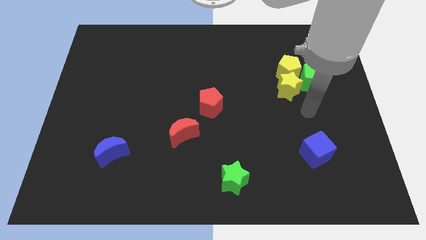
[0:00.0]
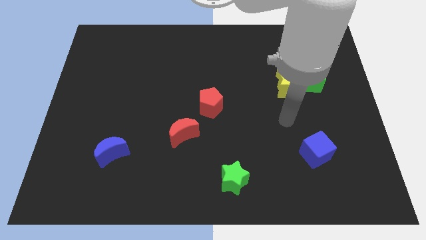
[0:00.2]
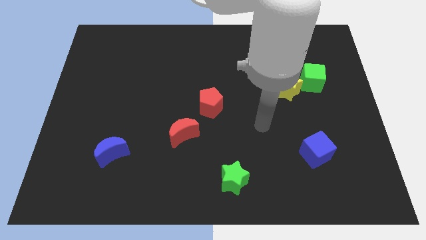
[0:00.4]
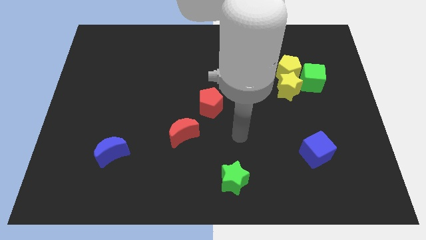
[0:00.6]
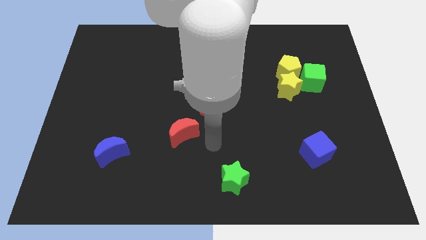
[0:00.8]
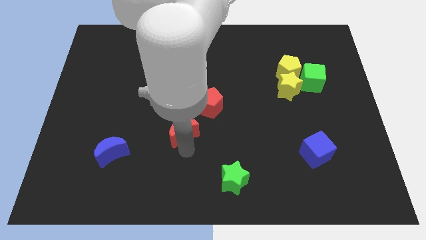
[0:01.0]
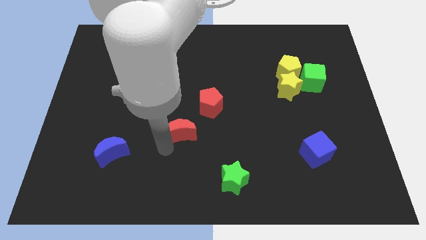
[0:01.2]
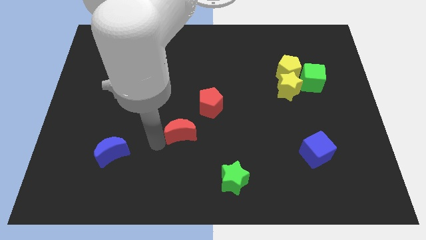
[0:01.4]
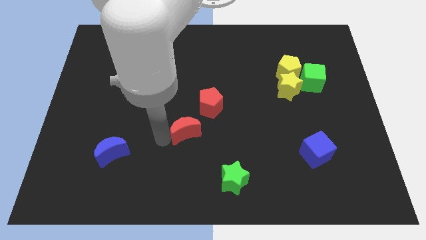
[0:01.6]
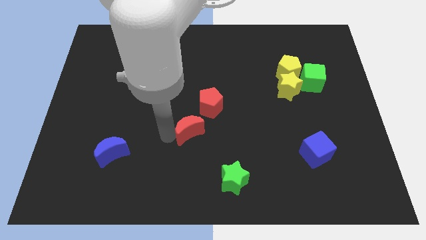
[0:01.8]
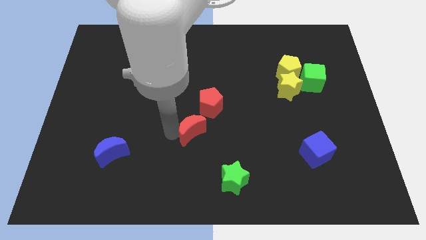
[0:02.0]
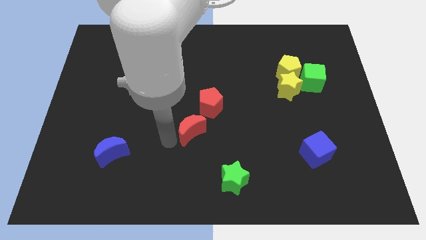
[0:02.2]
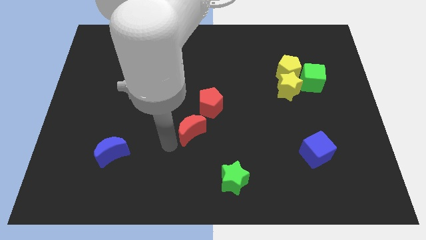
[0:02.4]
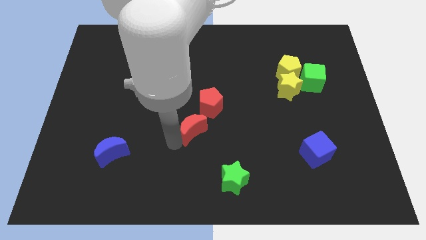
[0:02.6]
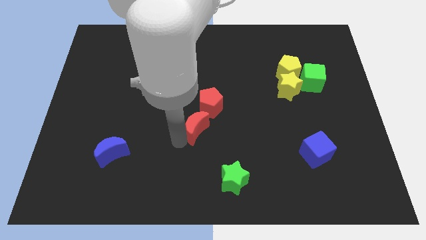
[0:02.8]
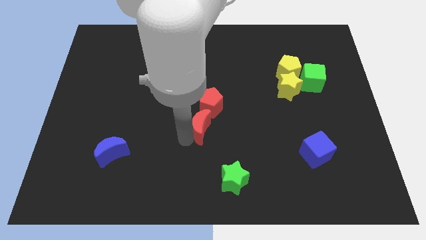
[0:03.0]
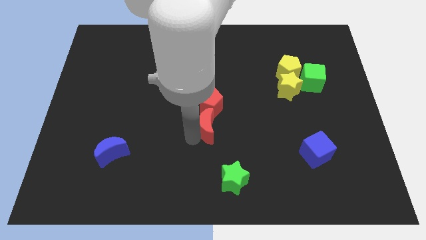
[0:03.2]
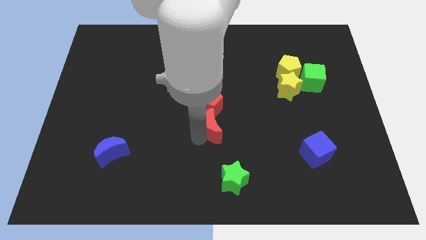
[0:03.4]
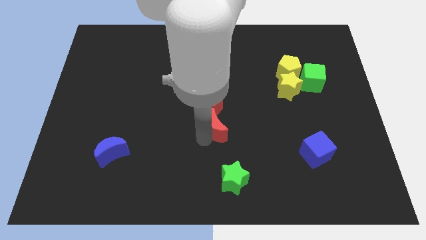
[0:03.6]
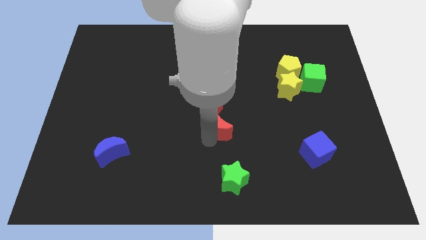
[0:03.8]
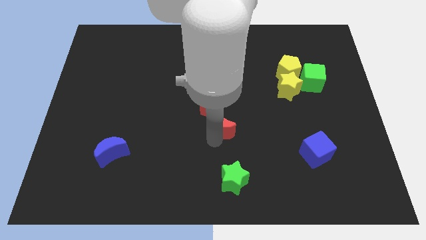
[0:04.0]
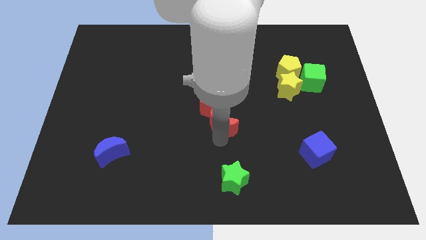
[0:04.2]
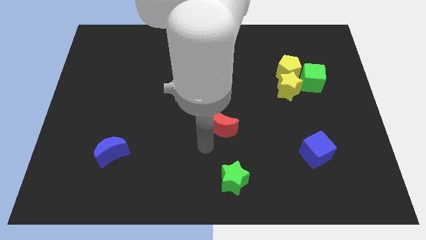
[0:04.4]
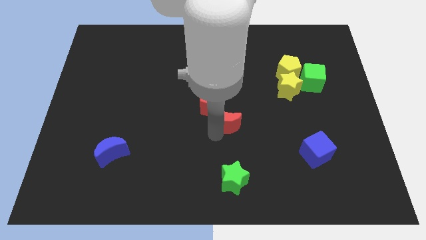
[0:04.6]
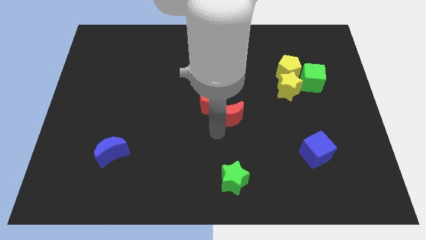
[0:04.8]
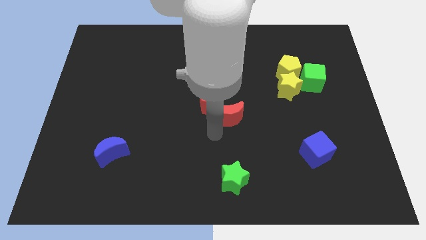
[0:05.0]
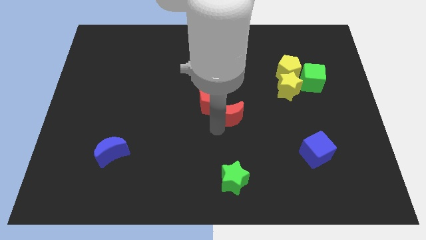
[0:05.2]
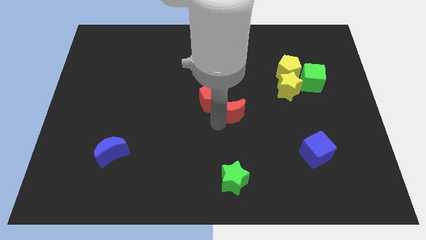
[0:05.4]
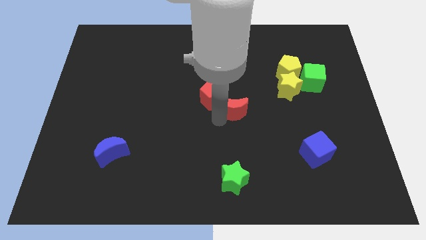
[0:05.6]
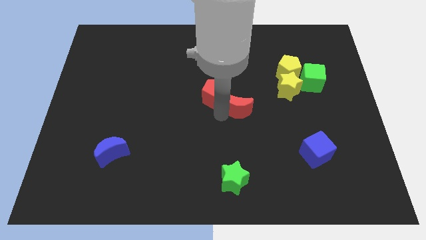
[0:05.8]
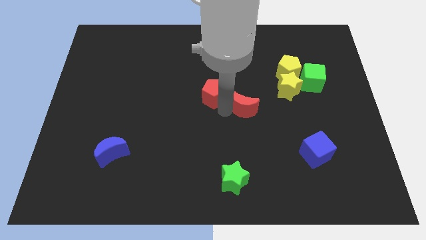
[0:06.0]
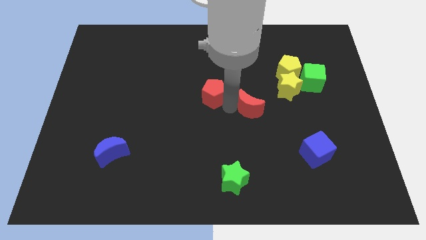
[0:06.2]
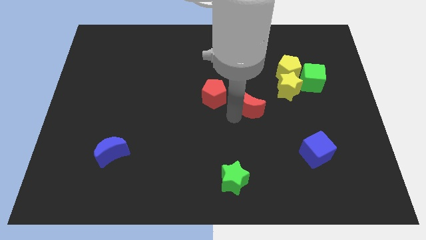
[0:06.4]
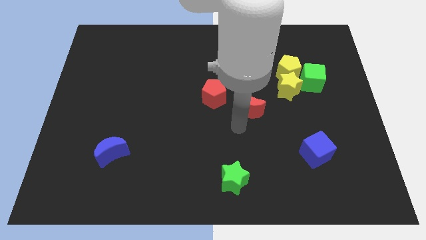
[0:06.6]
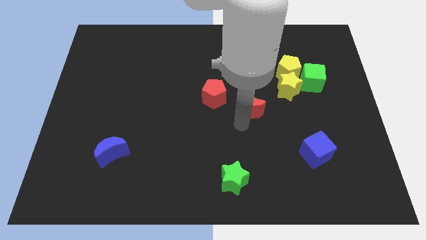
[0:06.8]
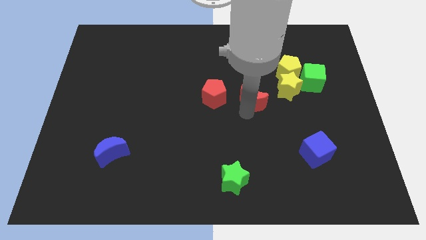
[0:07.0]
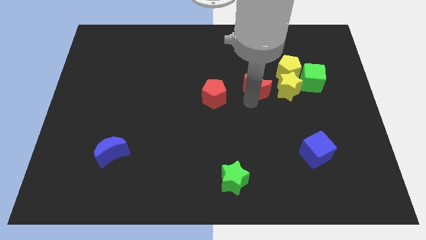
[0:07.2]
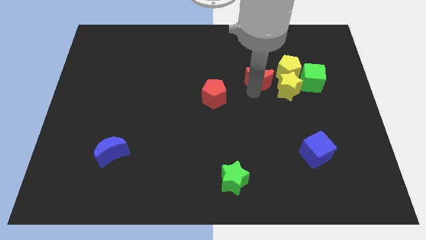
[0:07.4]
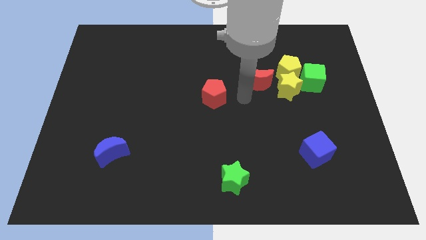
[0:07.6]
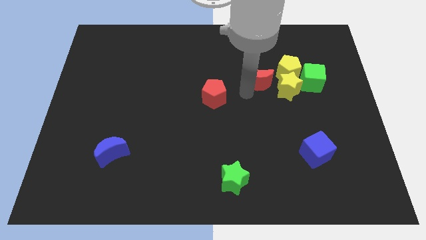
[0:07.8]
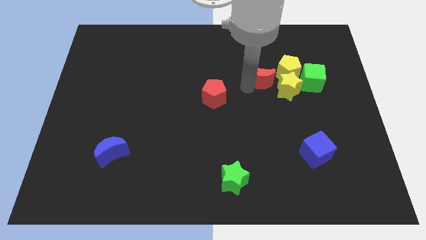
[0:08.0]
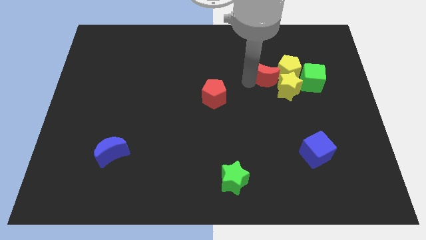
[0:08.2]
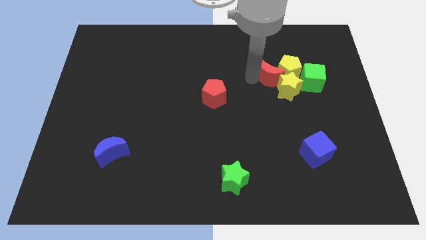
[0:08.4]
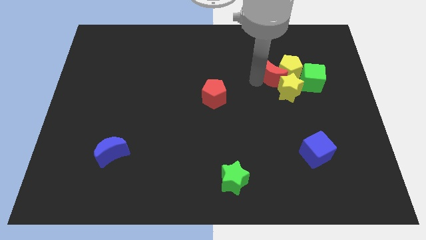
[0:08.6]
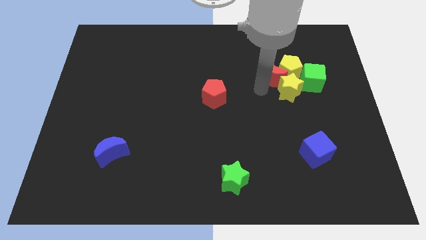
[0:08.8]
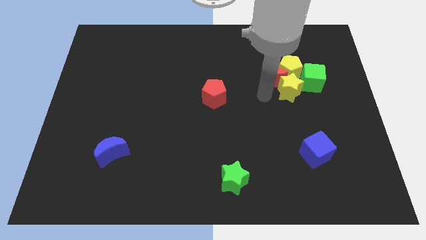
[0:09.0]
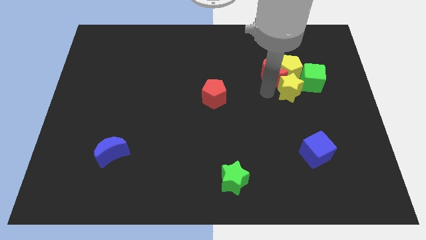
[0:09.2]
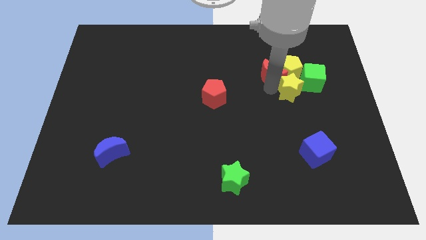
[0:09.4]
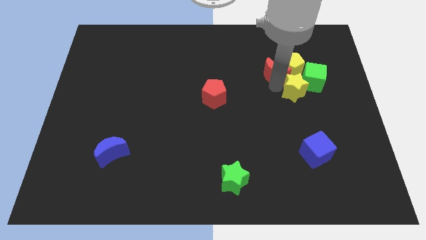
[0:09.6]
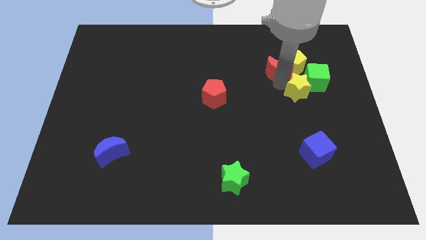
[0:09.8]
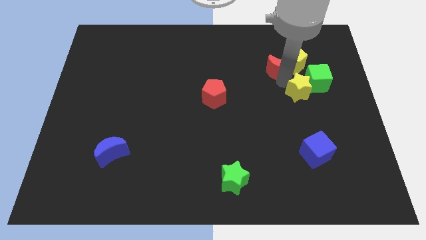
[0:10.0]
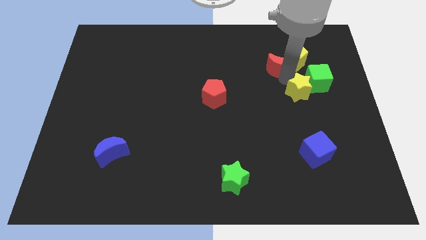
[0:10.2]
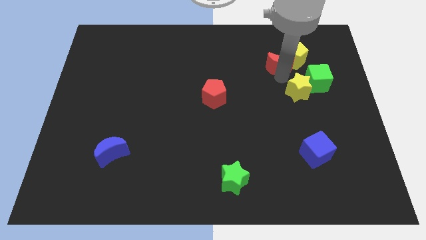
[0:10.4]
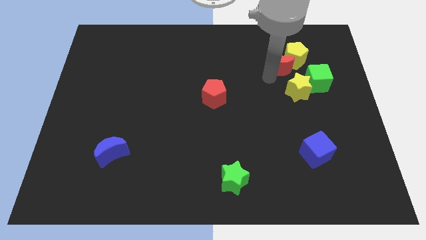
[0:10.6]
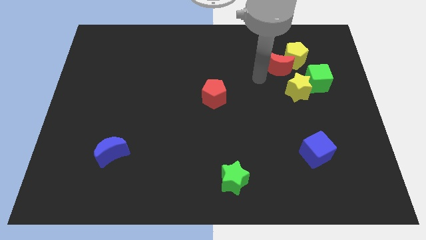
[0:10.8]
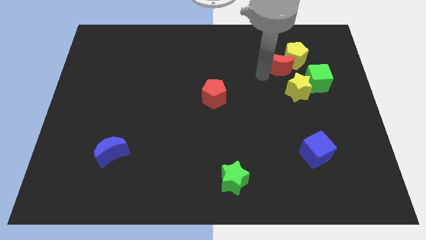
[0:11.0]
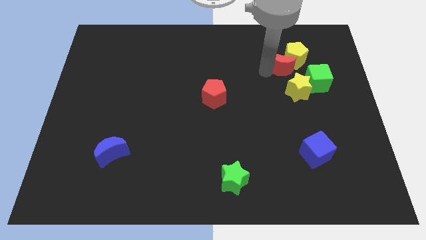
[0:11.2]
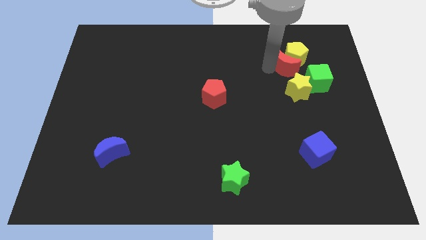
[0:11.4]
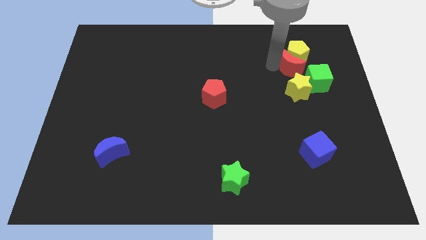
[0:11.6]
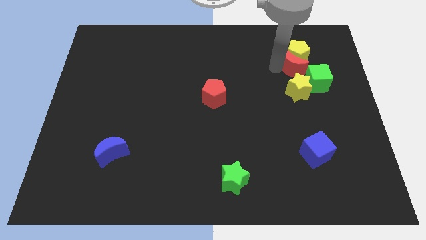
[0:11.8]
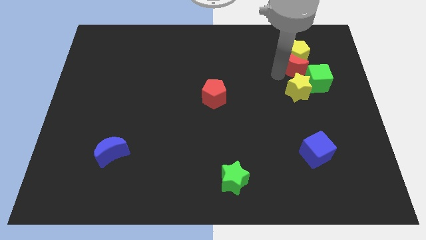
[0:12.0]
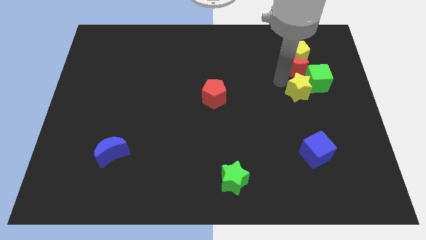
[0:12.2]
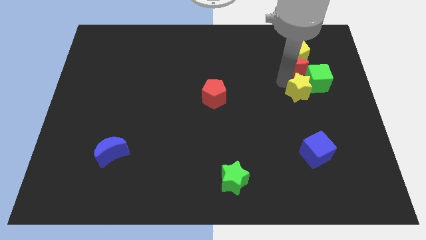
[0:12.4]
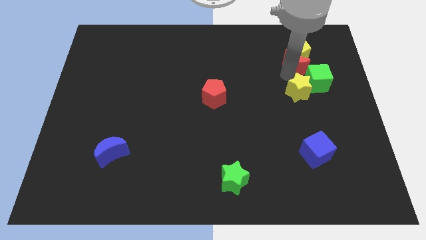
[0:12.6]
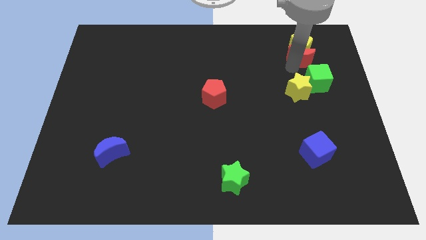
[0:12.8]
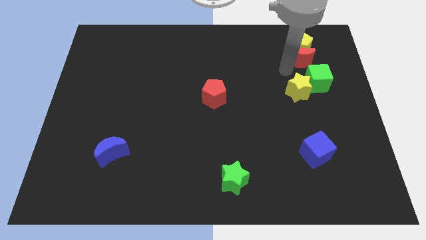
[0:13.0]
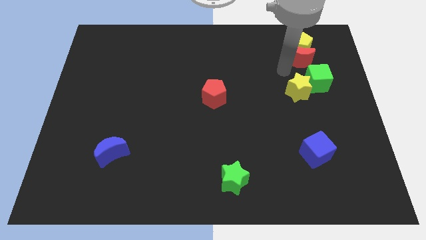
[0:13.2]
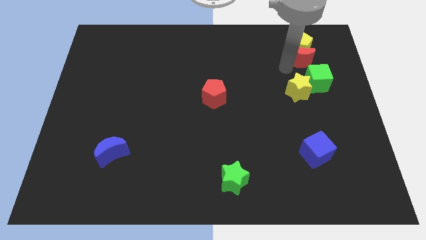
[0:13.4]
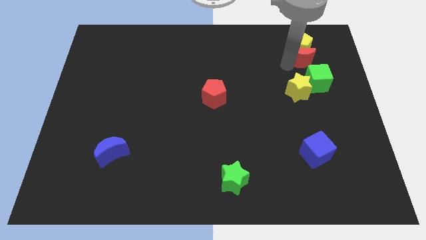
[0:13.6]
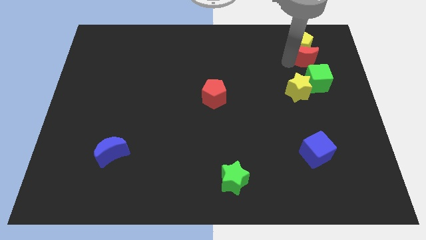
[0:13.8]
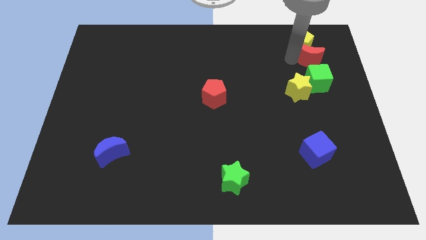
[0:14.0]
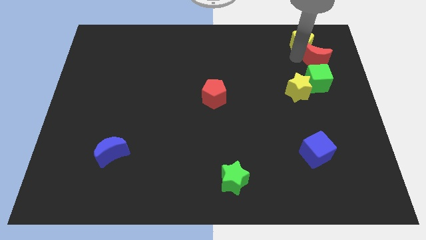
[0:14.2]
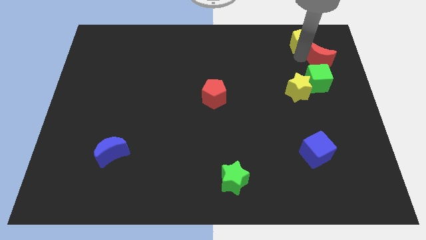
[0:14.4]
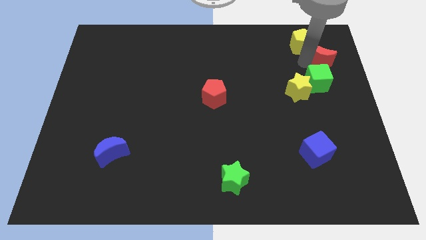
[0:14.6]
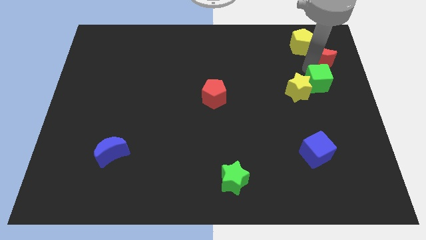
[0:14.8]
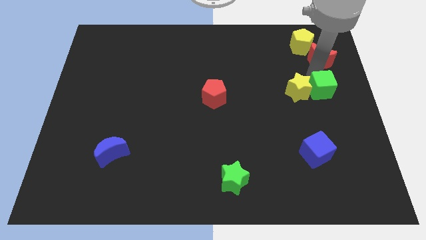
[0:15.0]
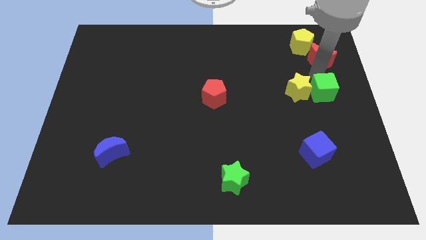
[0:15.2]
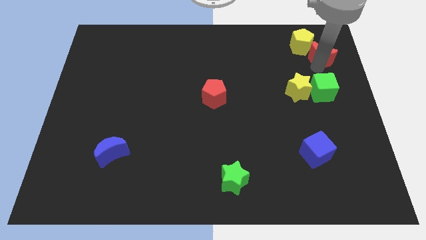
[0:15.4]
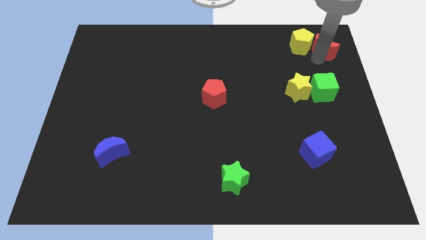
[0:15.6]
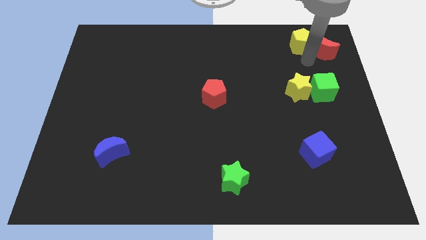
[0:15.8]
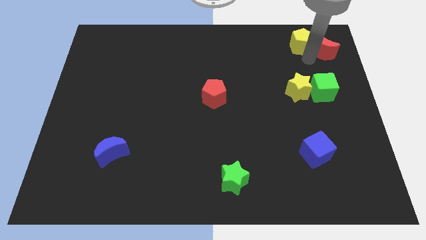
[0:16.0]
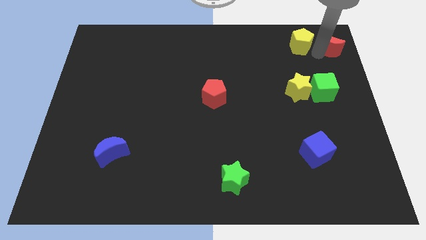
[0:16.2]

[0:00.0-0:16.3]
put the red moon to the top right corner
